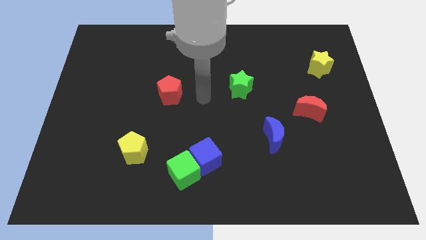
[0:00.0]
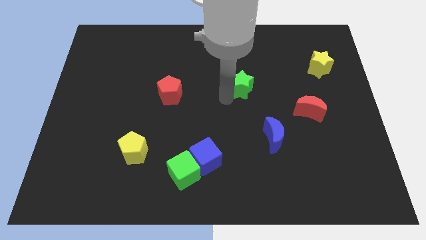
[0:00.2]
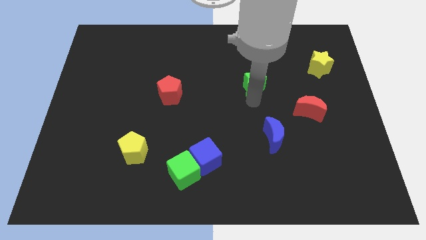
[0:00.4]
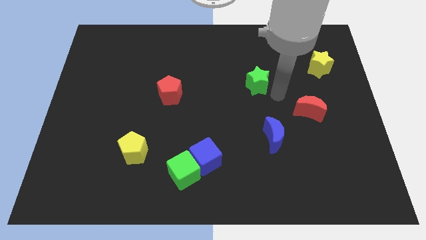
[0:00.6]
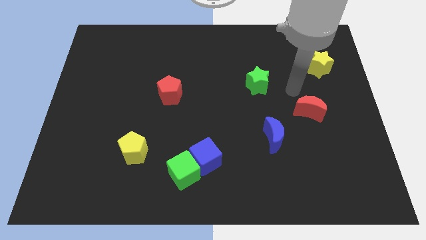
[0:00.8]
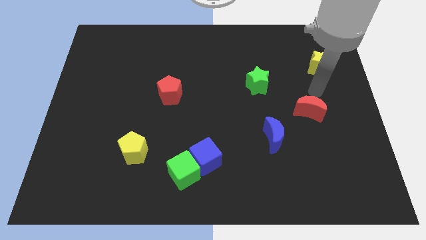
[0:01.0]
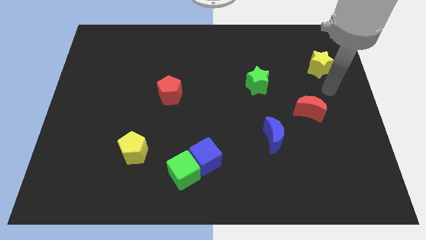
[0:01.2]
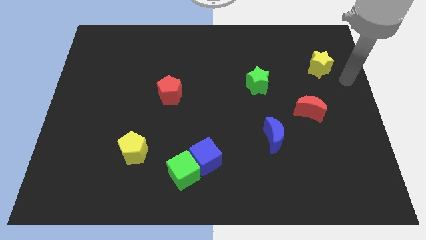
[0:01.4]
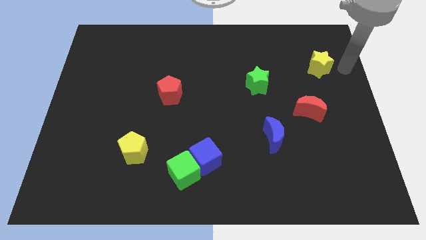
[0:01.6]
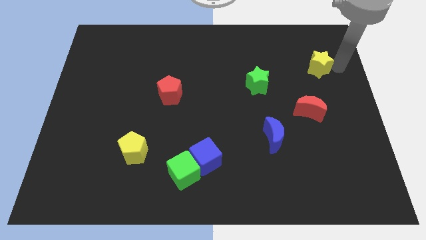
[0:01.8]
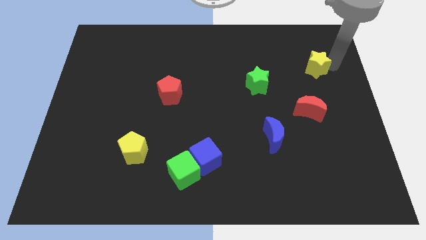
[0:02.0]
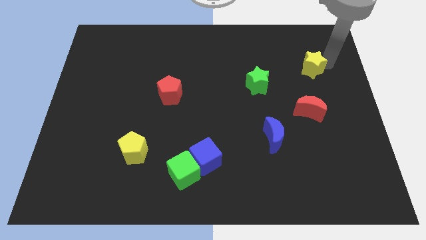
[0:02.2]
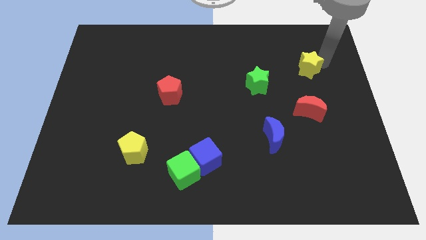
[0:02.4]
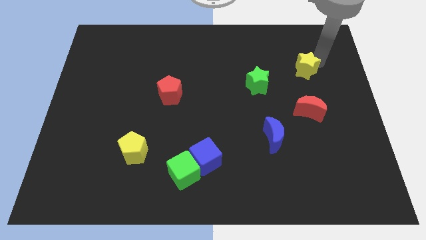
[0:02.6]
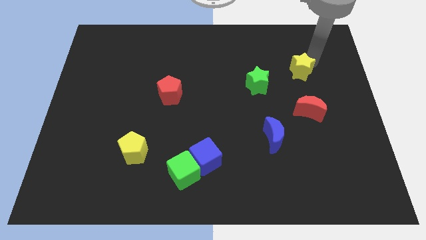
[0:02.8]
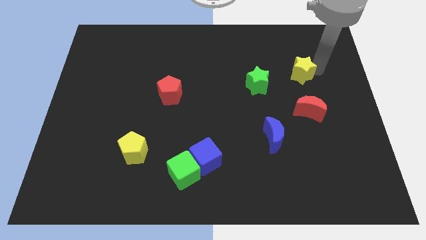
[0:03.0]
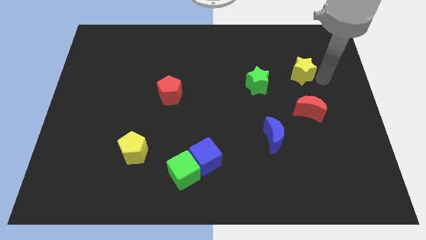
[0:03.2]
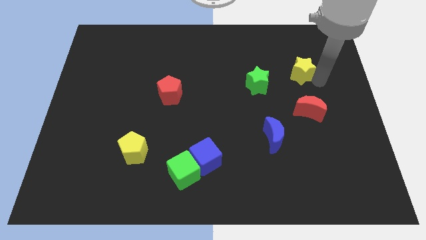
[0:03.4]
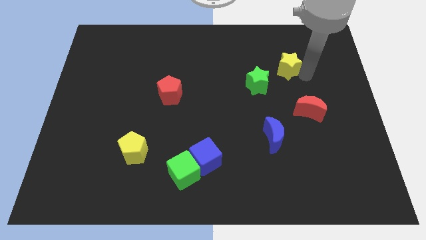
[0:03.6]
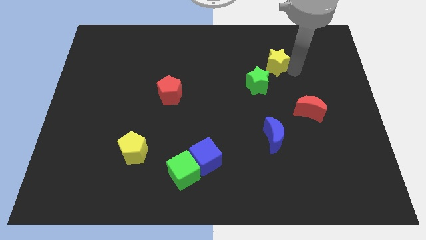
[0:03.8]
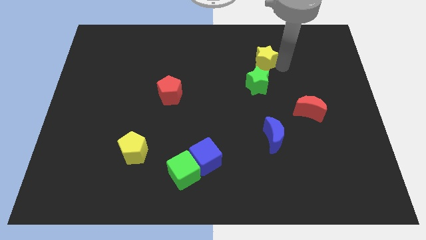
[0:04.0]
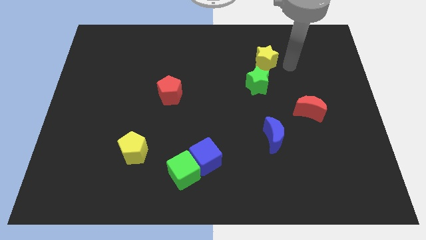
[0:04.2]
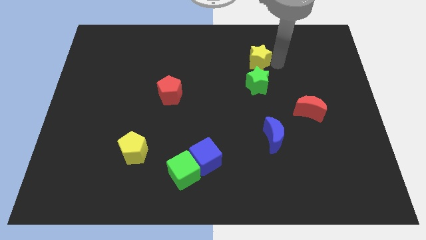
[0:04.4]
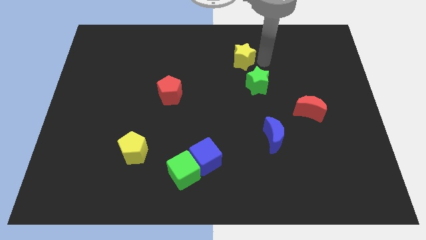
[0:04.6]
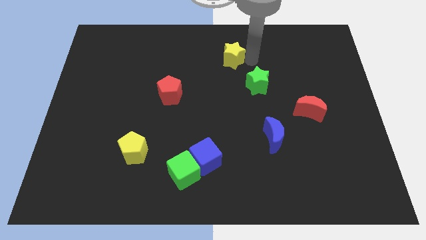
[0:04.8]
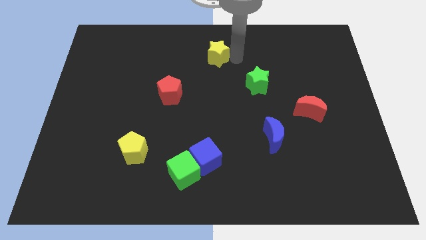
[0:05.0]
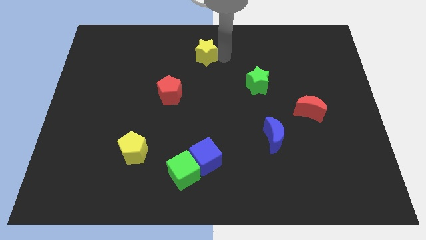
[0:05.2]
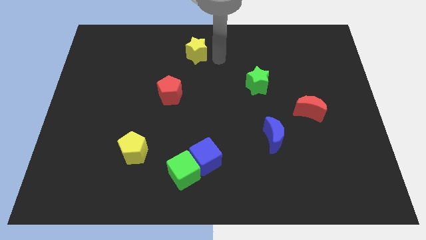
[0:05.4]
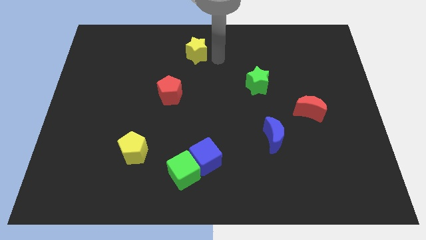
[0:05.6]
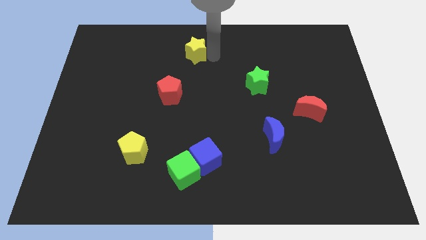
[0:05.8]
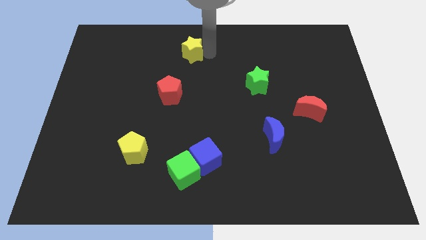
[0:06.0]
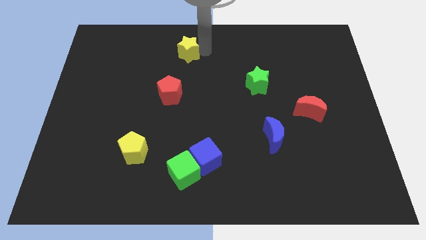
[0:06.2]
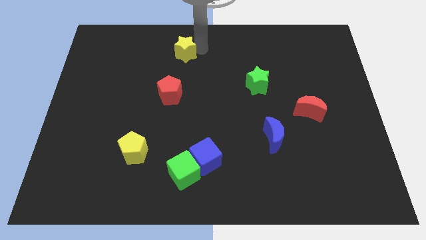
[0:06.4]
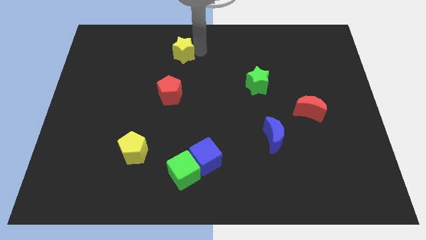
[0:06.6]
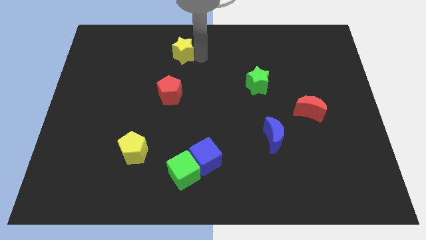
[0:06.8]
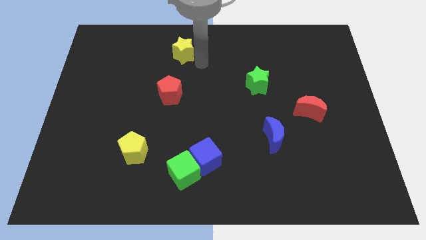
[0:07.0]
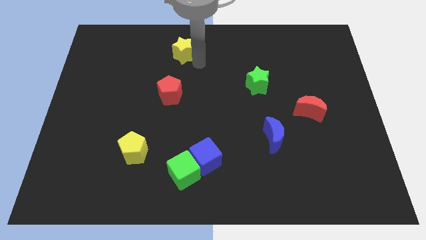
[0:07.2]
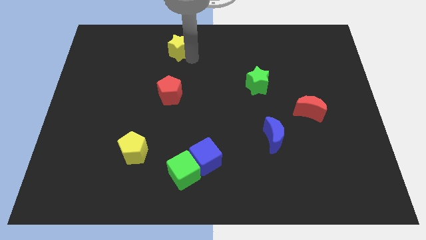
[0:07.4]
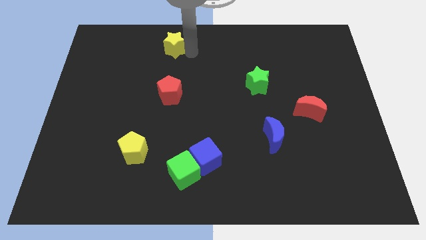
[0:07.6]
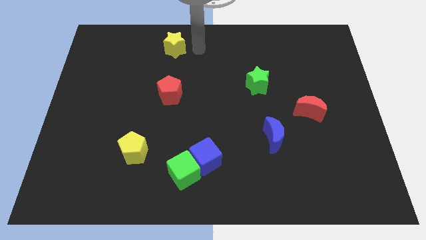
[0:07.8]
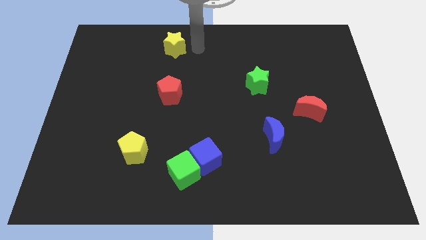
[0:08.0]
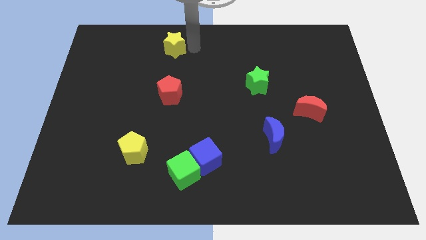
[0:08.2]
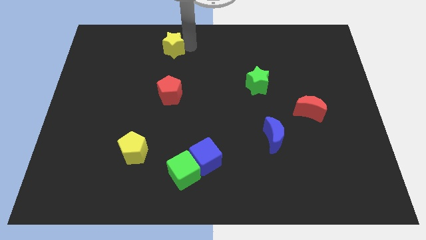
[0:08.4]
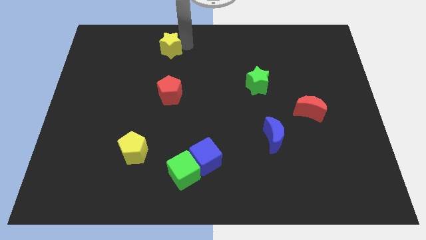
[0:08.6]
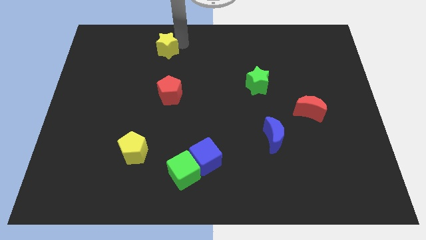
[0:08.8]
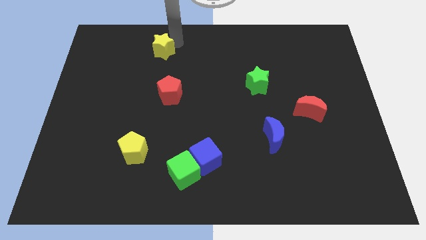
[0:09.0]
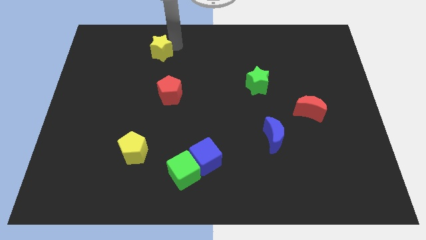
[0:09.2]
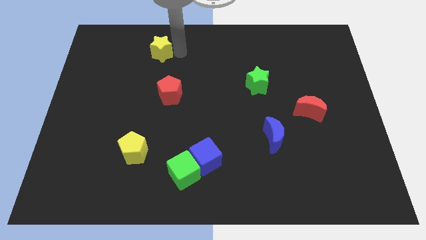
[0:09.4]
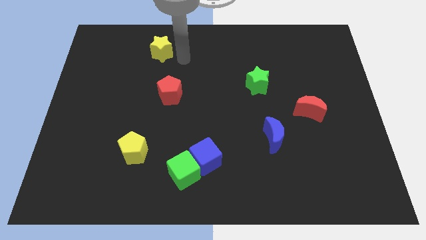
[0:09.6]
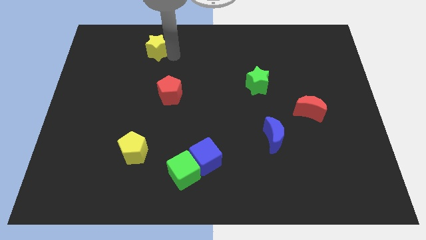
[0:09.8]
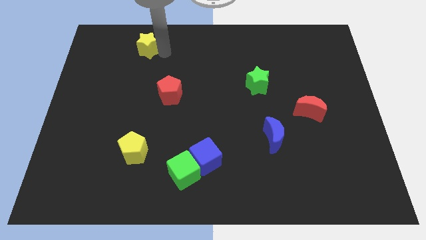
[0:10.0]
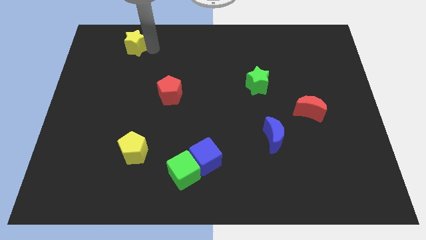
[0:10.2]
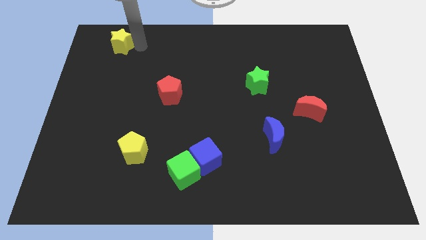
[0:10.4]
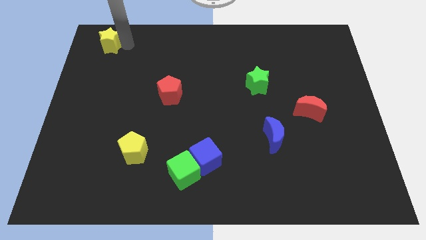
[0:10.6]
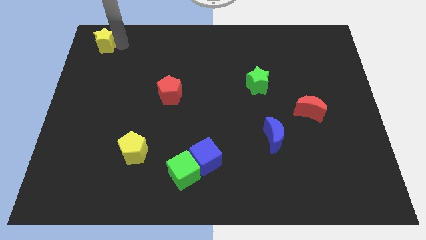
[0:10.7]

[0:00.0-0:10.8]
put the yellow star to the top left of the board

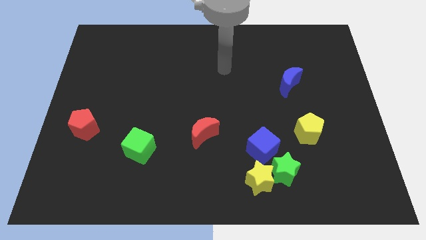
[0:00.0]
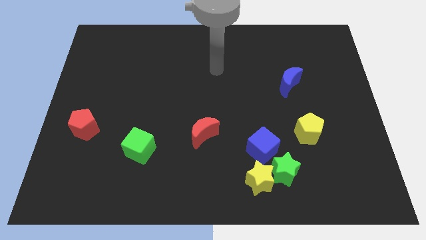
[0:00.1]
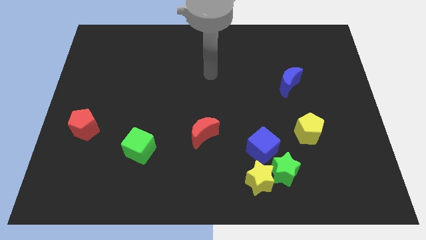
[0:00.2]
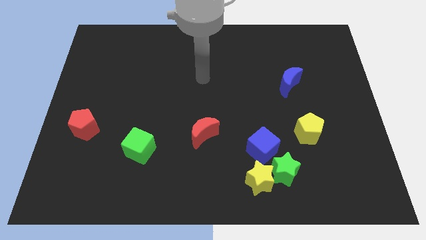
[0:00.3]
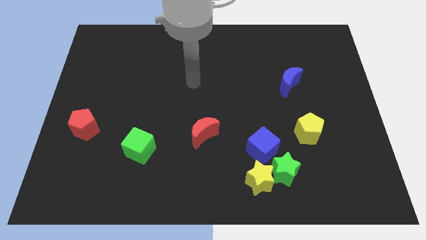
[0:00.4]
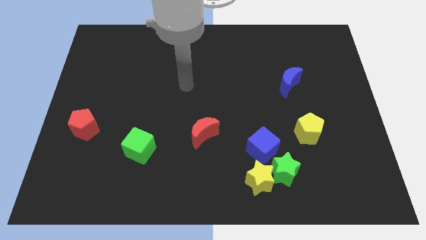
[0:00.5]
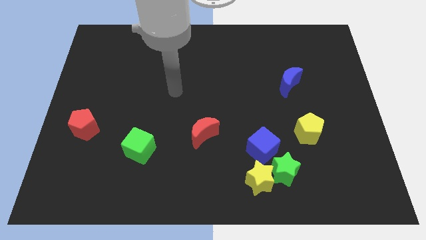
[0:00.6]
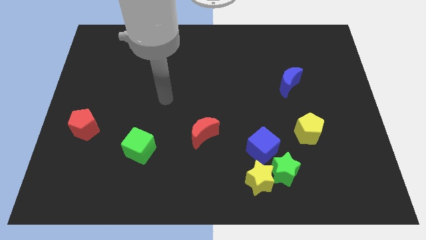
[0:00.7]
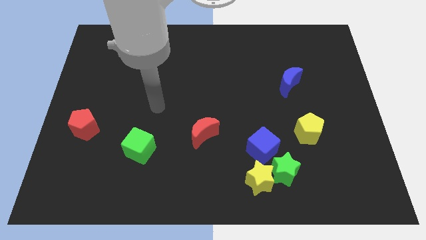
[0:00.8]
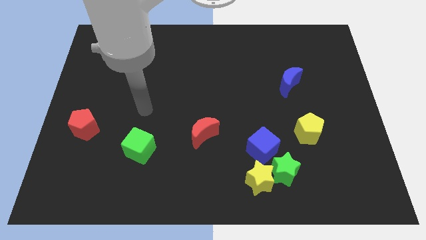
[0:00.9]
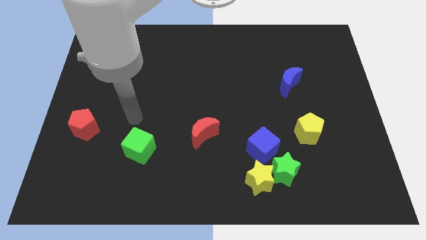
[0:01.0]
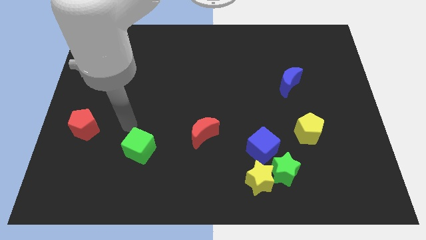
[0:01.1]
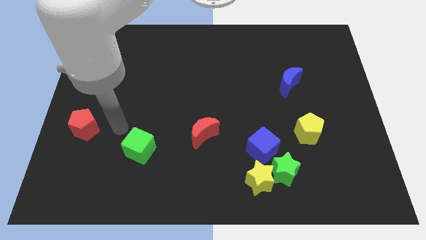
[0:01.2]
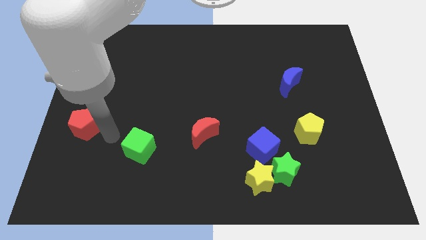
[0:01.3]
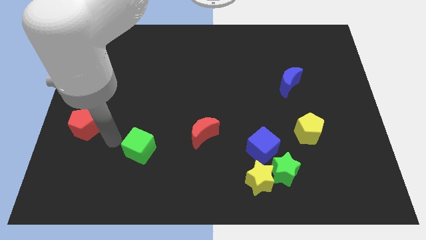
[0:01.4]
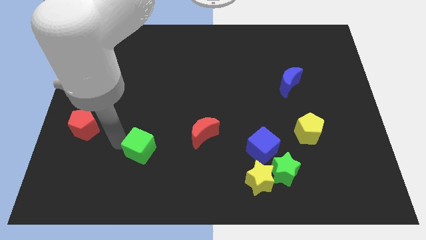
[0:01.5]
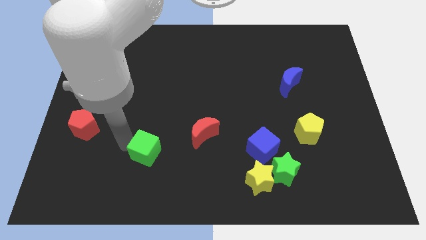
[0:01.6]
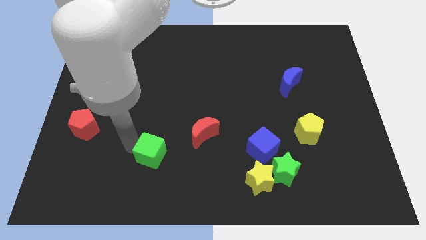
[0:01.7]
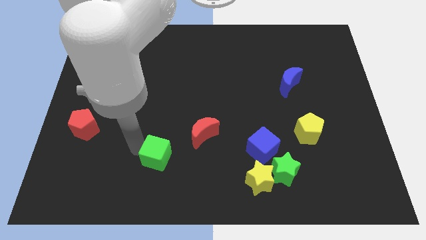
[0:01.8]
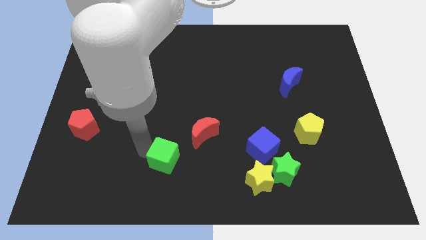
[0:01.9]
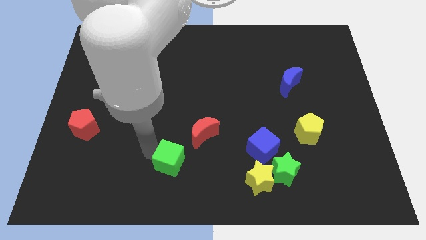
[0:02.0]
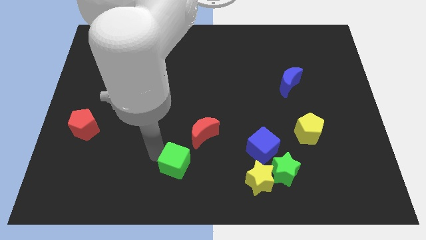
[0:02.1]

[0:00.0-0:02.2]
put the green cube to the bottom
